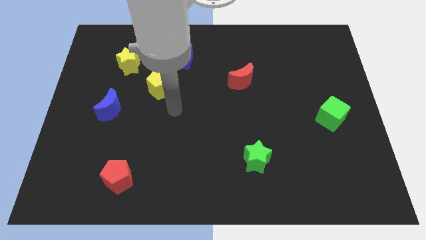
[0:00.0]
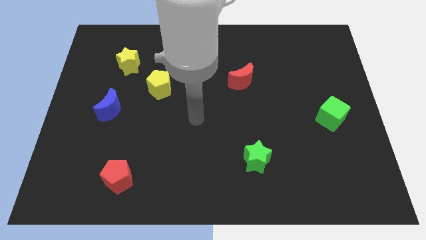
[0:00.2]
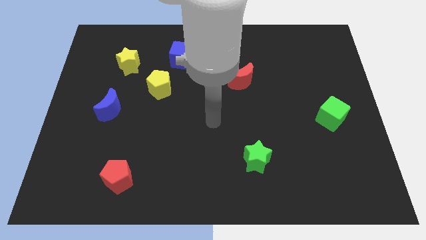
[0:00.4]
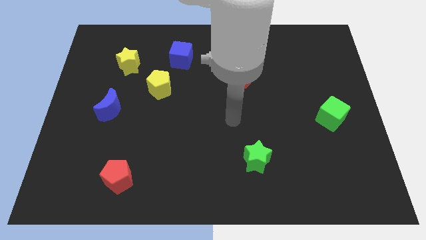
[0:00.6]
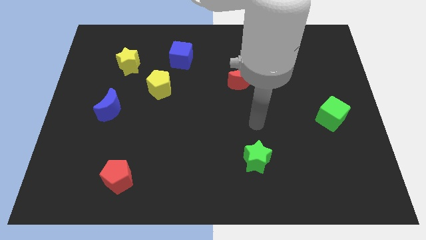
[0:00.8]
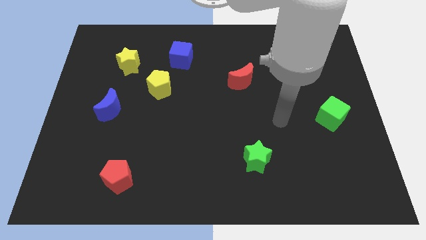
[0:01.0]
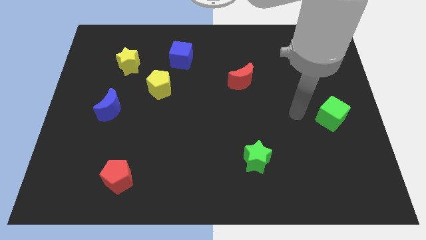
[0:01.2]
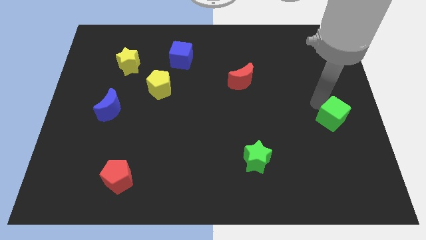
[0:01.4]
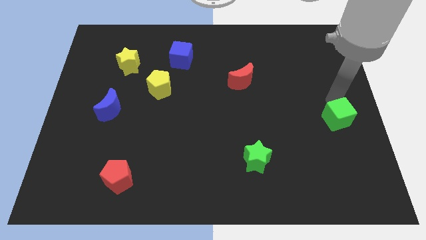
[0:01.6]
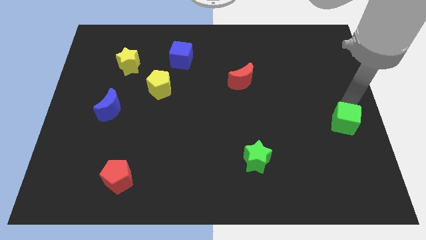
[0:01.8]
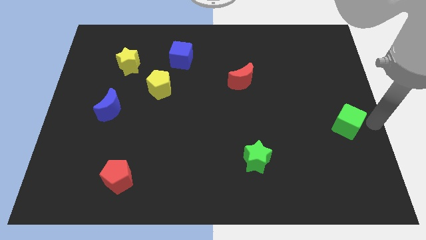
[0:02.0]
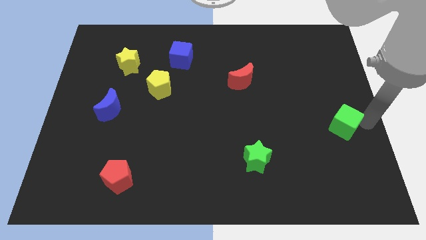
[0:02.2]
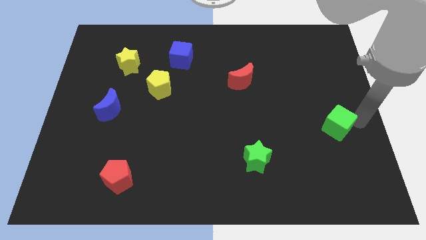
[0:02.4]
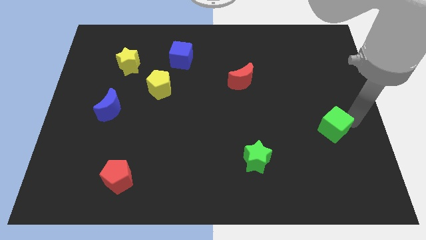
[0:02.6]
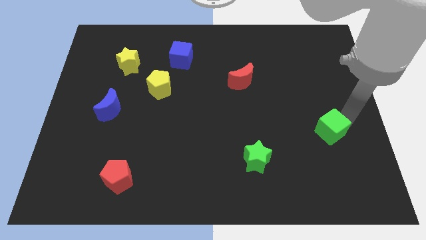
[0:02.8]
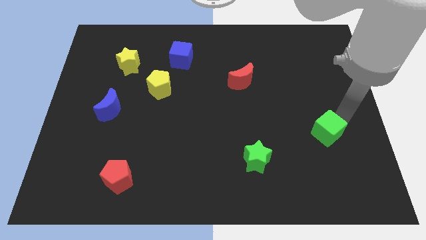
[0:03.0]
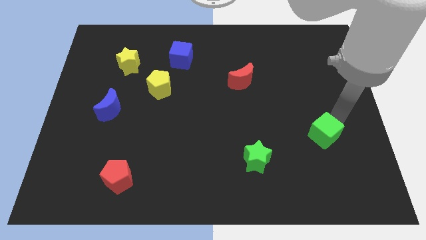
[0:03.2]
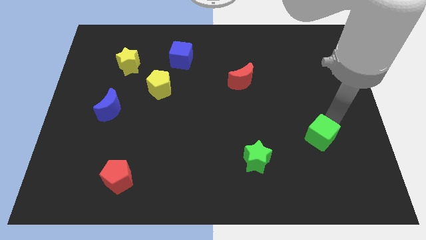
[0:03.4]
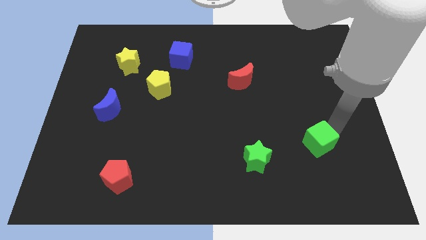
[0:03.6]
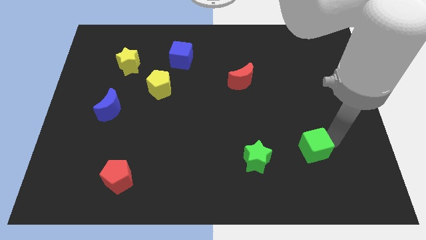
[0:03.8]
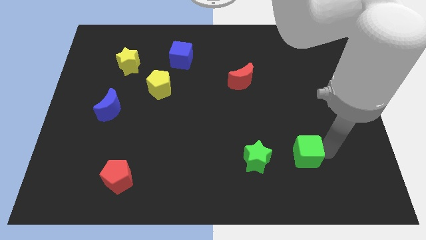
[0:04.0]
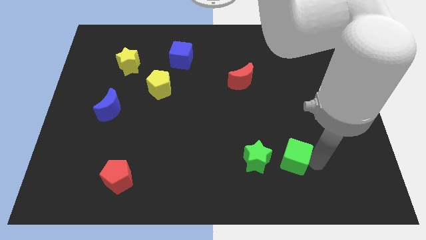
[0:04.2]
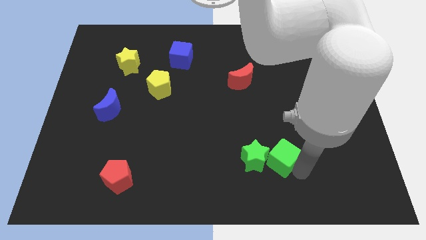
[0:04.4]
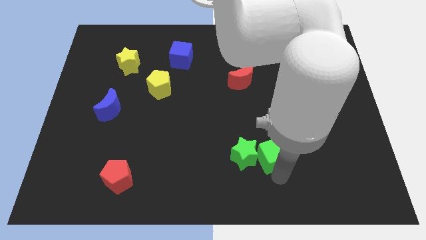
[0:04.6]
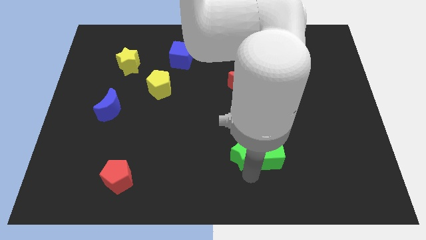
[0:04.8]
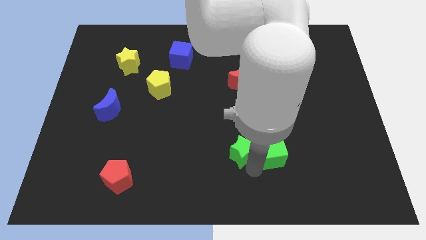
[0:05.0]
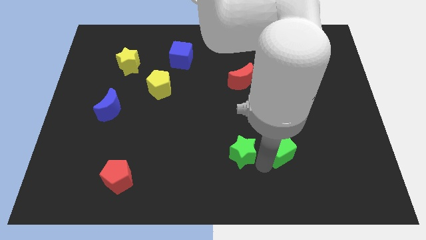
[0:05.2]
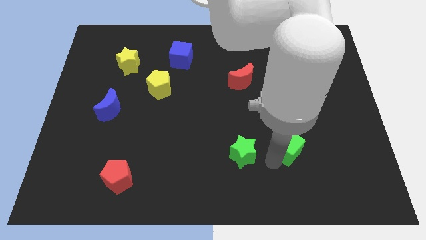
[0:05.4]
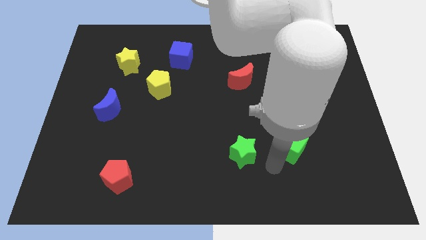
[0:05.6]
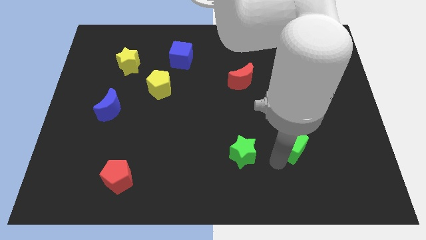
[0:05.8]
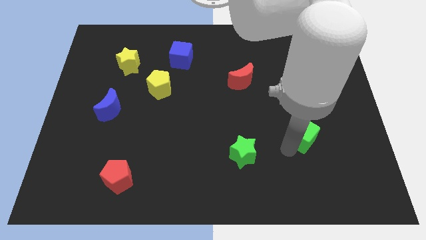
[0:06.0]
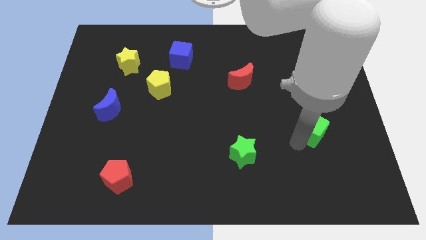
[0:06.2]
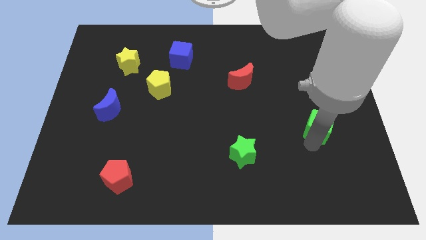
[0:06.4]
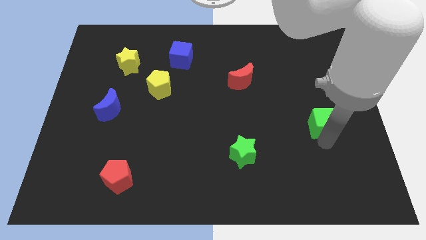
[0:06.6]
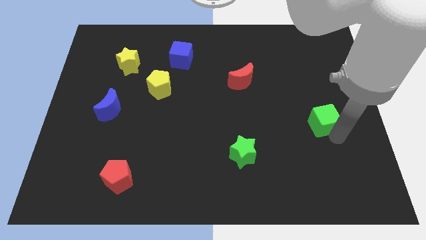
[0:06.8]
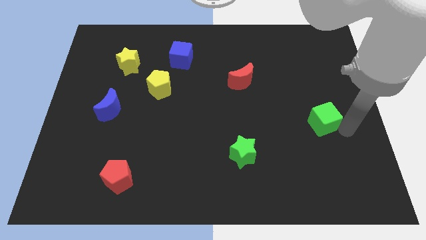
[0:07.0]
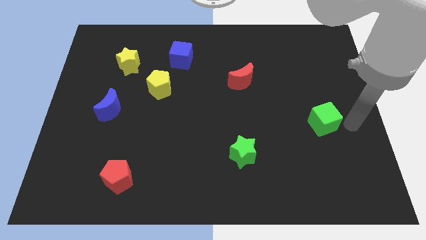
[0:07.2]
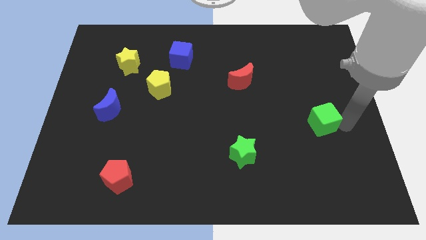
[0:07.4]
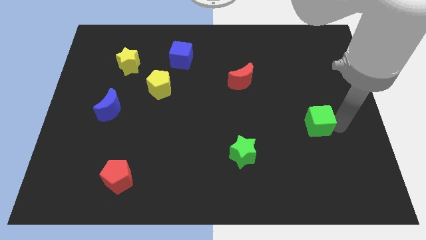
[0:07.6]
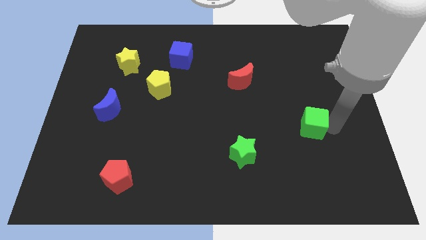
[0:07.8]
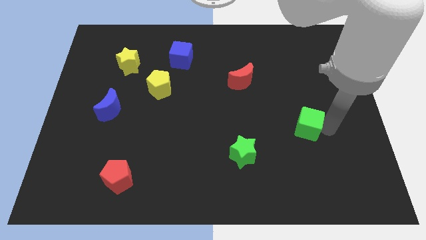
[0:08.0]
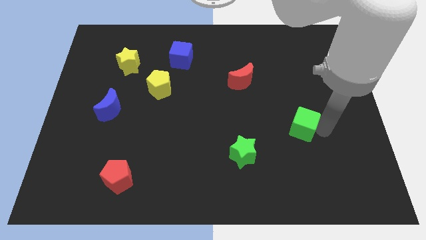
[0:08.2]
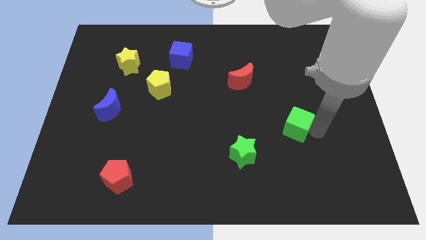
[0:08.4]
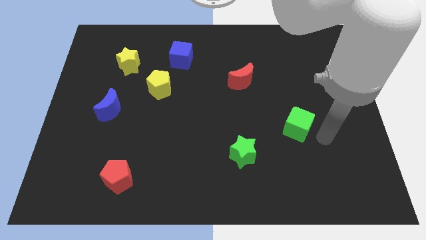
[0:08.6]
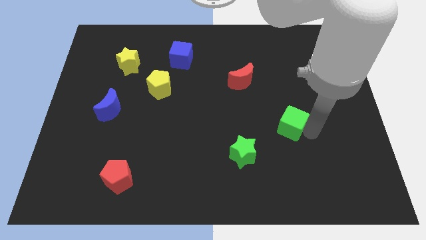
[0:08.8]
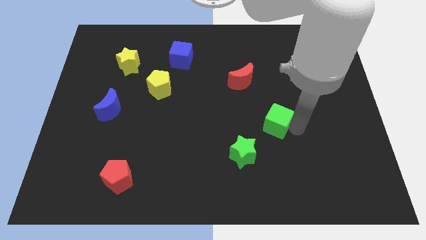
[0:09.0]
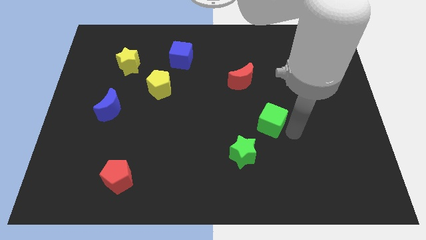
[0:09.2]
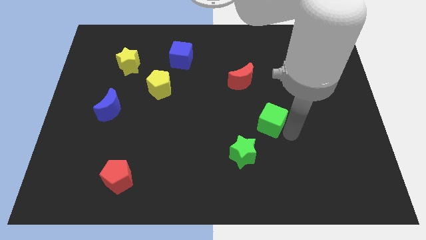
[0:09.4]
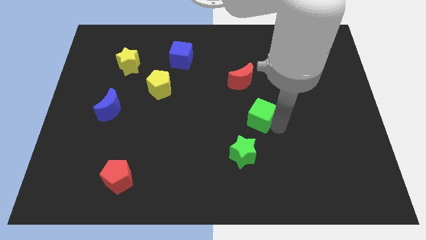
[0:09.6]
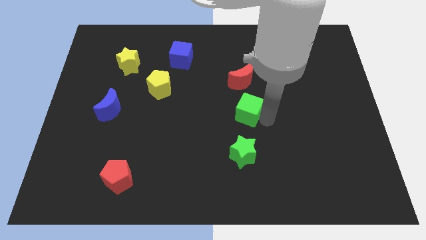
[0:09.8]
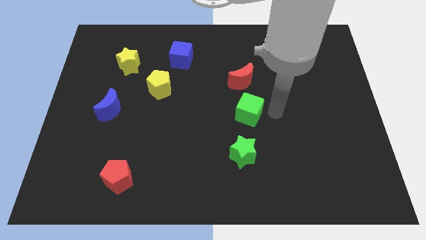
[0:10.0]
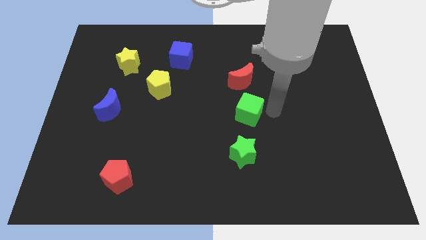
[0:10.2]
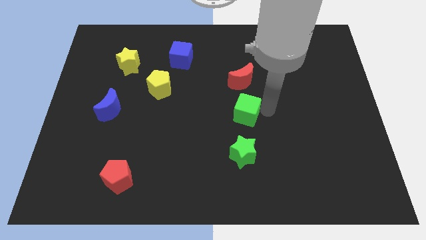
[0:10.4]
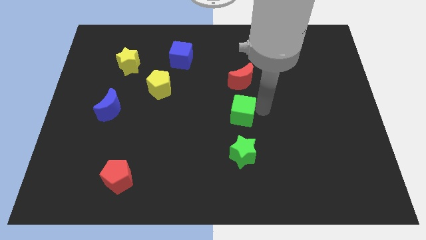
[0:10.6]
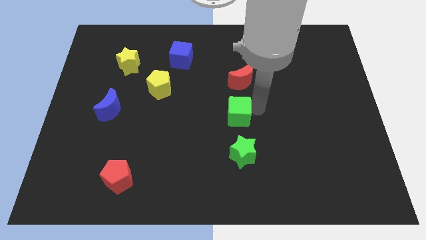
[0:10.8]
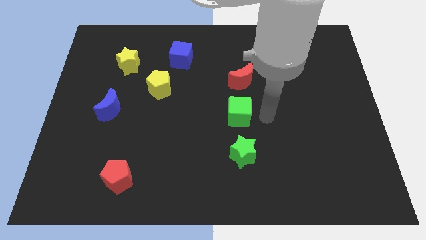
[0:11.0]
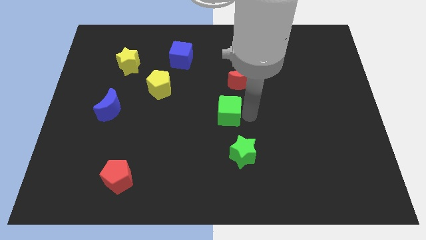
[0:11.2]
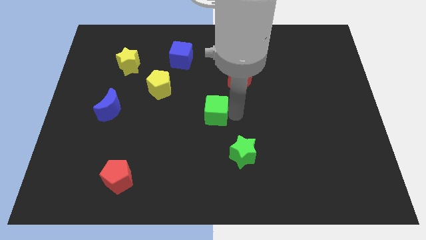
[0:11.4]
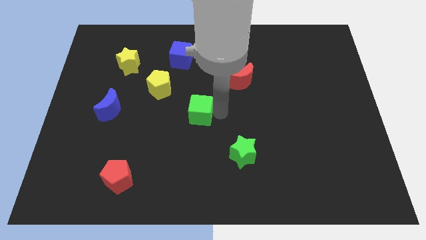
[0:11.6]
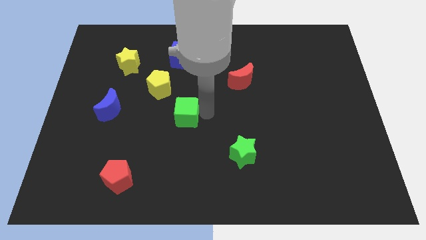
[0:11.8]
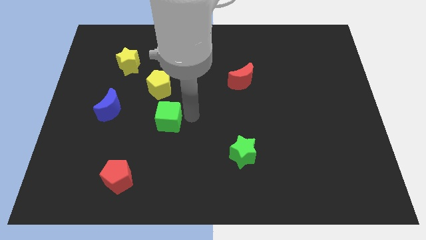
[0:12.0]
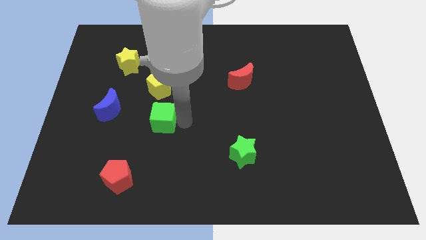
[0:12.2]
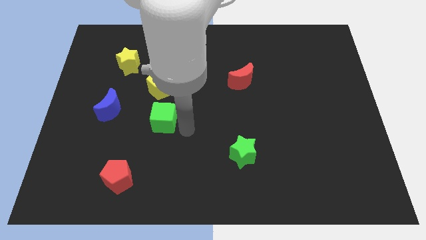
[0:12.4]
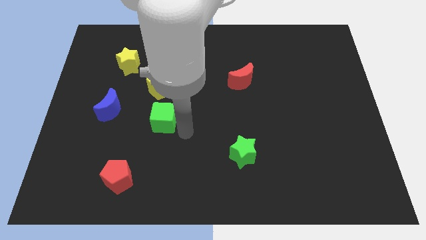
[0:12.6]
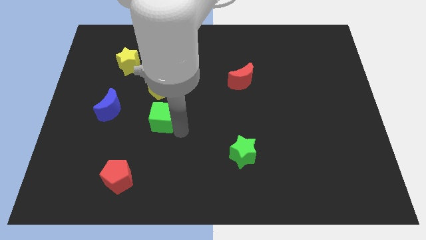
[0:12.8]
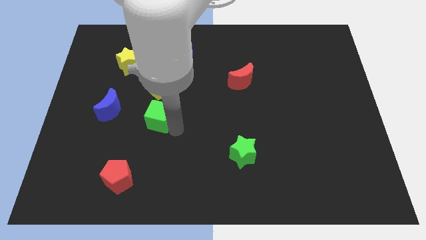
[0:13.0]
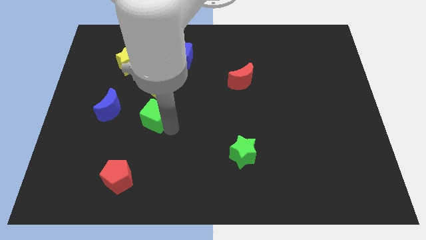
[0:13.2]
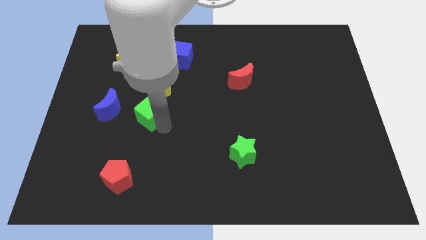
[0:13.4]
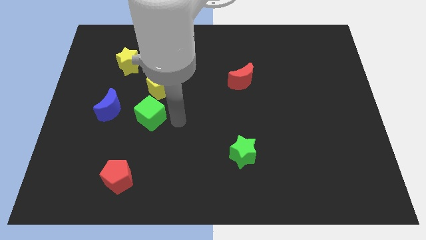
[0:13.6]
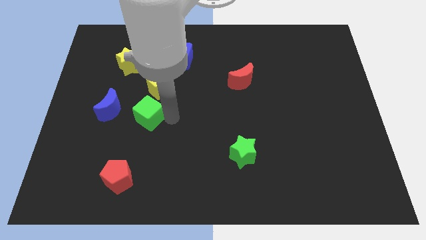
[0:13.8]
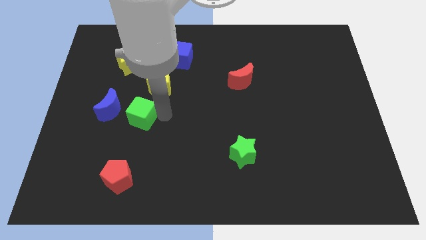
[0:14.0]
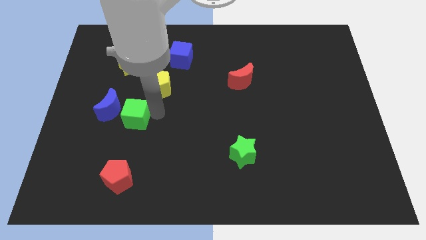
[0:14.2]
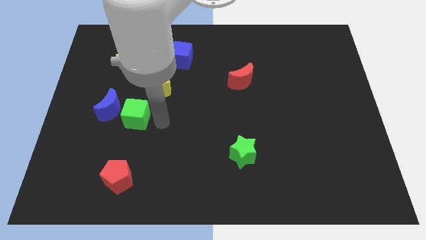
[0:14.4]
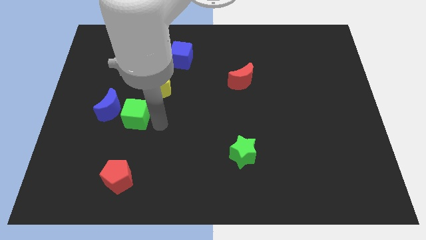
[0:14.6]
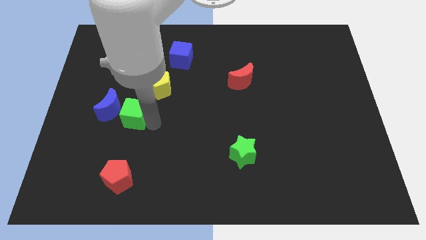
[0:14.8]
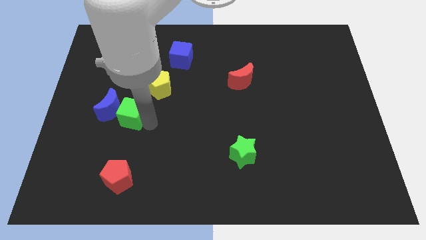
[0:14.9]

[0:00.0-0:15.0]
slide the green cube close to the blue moon
